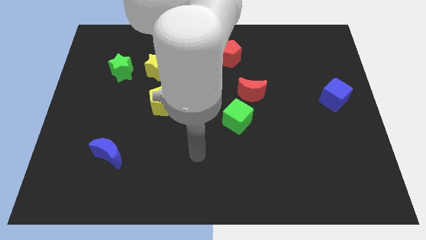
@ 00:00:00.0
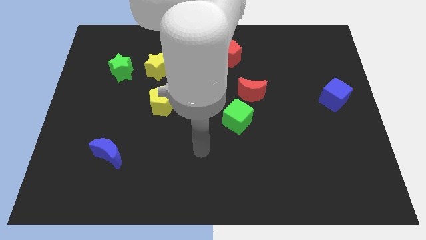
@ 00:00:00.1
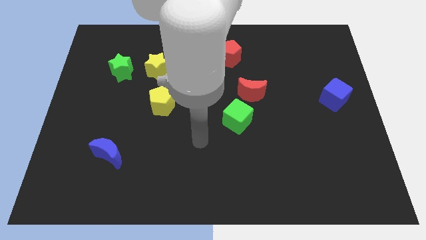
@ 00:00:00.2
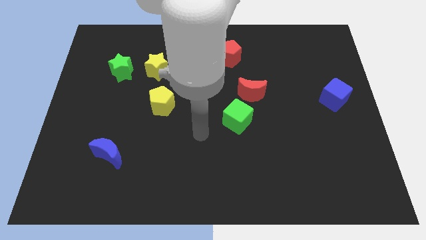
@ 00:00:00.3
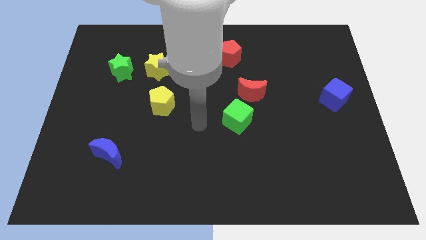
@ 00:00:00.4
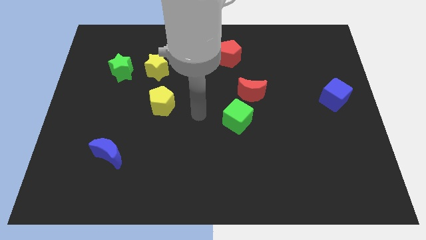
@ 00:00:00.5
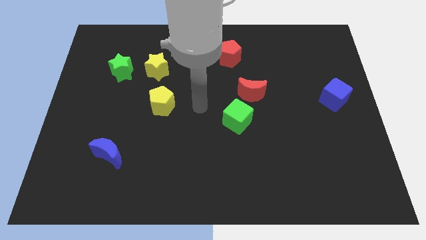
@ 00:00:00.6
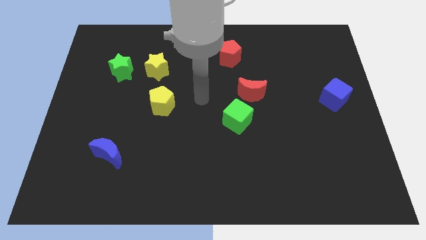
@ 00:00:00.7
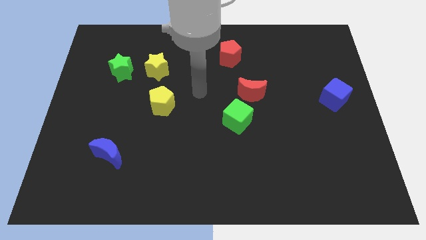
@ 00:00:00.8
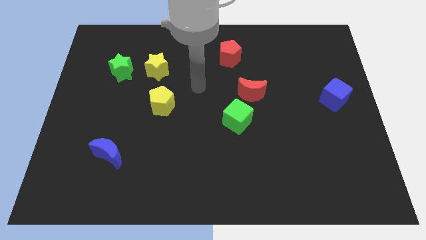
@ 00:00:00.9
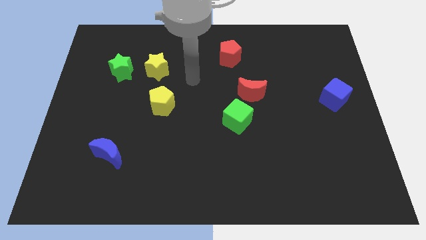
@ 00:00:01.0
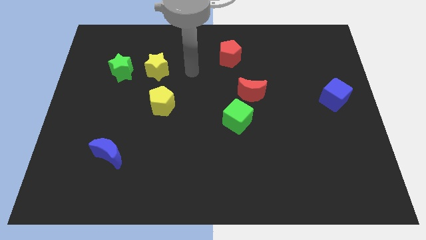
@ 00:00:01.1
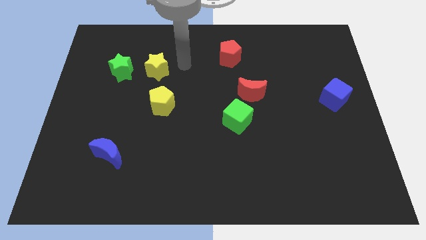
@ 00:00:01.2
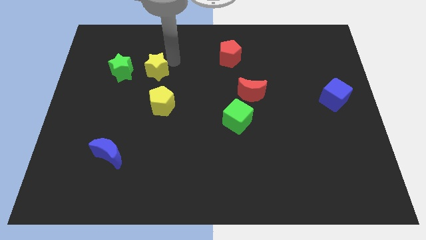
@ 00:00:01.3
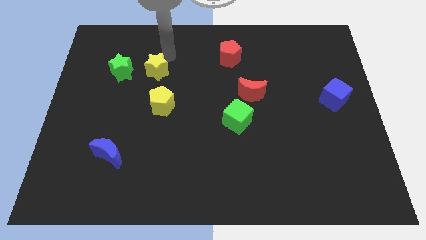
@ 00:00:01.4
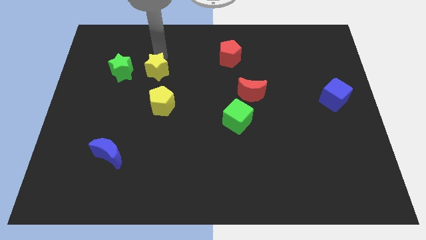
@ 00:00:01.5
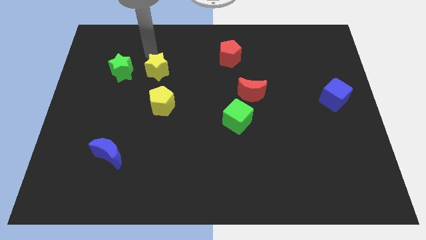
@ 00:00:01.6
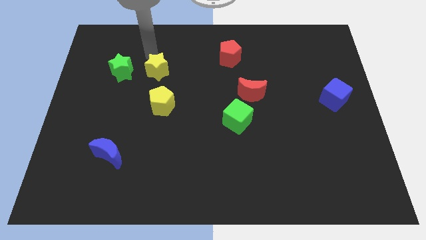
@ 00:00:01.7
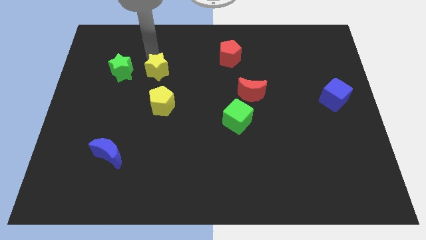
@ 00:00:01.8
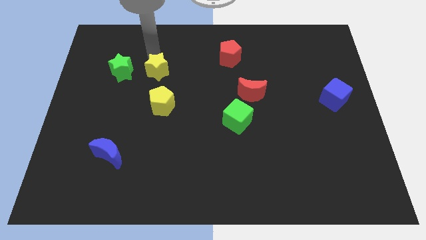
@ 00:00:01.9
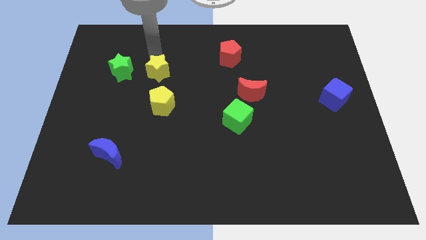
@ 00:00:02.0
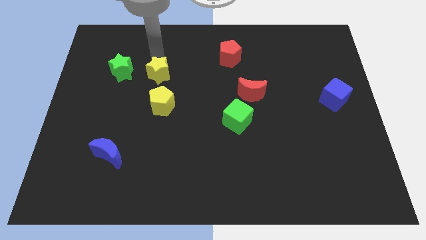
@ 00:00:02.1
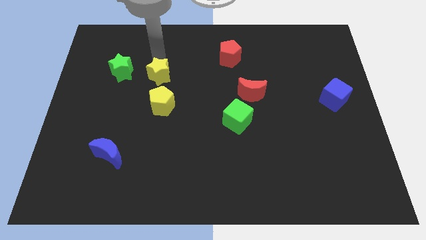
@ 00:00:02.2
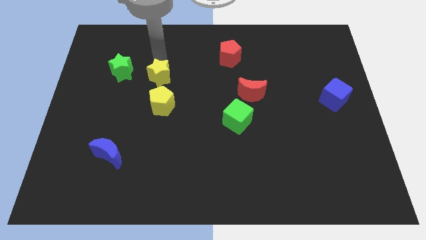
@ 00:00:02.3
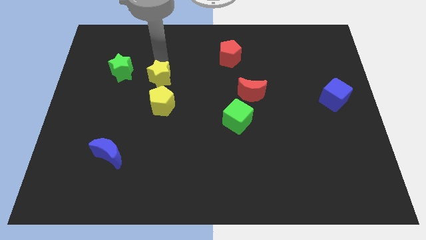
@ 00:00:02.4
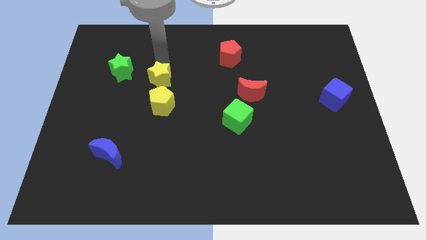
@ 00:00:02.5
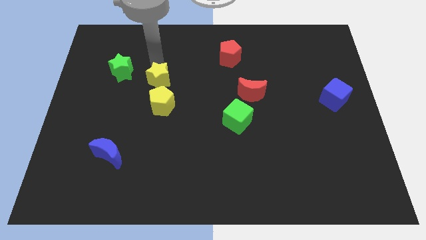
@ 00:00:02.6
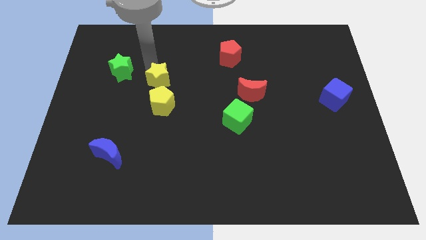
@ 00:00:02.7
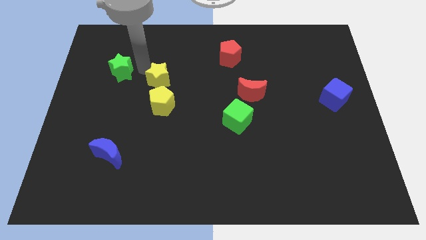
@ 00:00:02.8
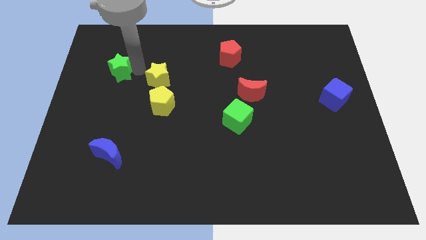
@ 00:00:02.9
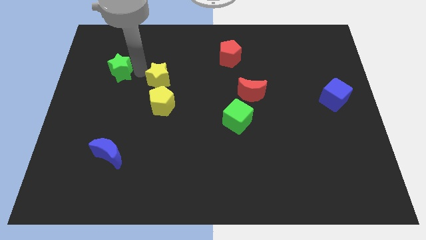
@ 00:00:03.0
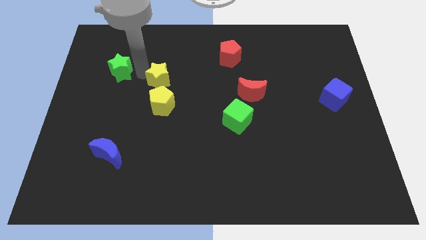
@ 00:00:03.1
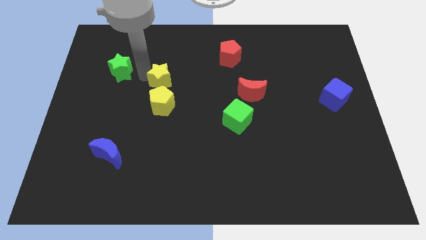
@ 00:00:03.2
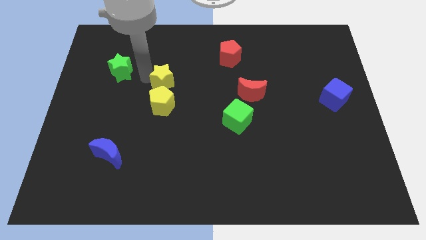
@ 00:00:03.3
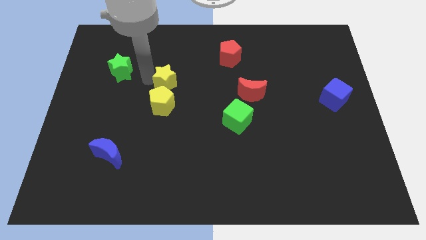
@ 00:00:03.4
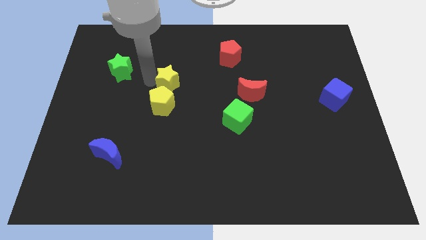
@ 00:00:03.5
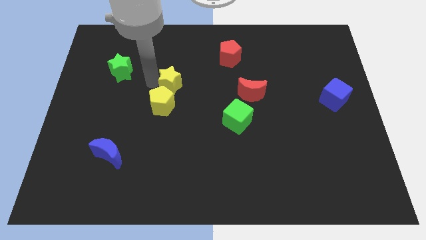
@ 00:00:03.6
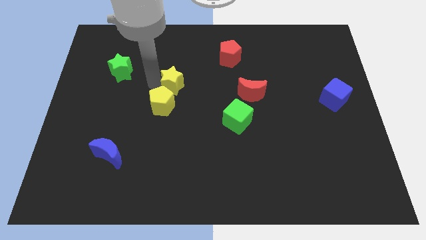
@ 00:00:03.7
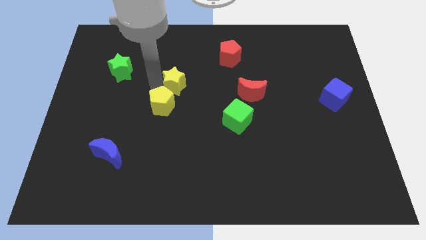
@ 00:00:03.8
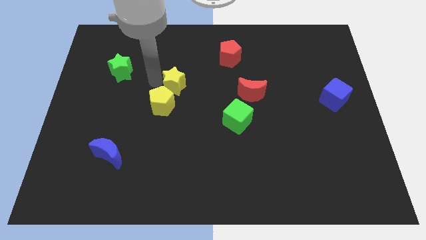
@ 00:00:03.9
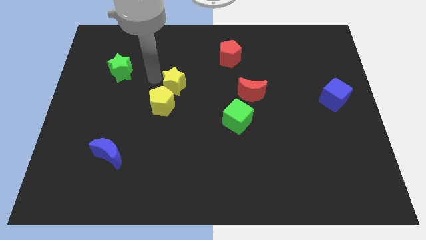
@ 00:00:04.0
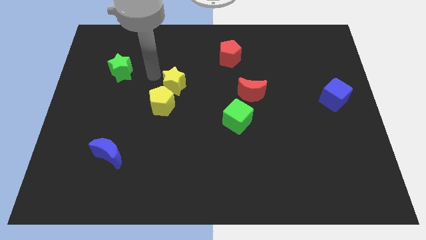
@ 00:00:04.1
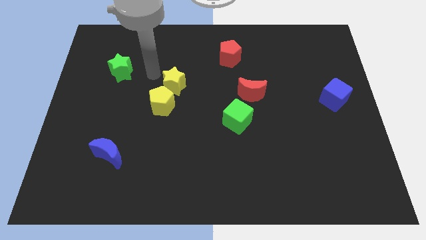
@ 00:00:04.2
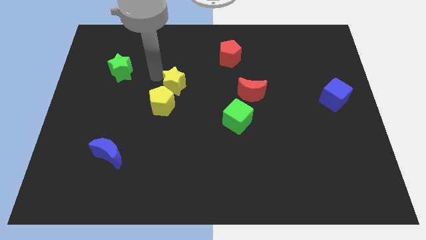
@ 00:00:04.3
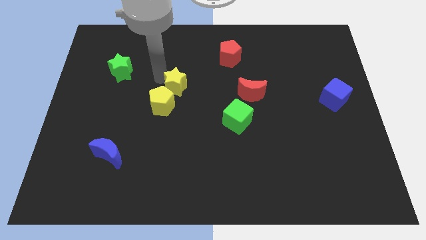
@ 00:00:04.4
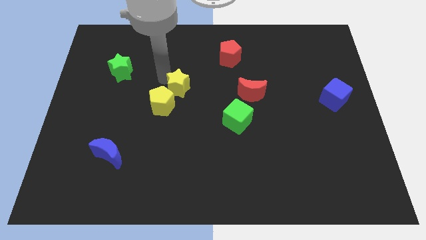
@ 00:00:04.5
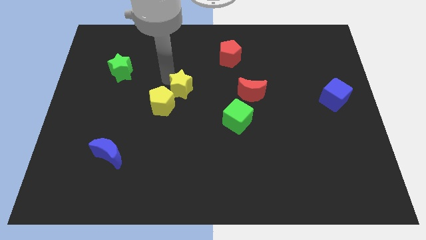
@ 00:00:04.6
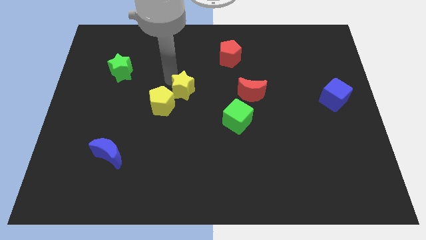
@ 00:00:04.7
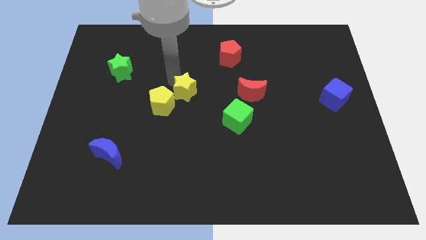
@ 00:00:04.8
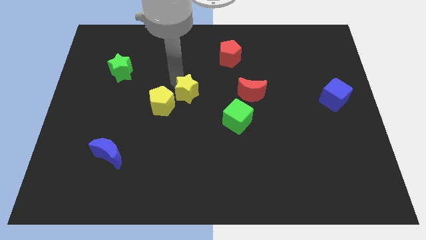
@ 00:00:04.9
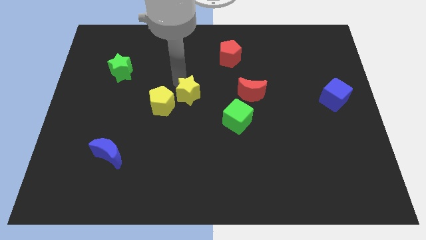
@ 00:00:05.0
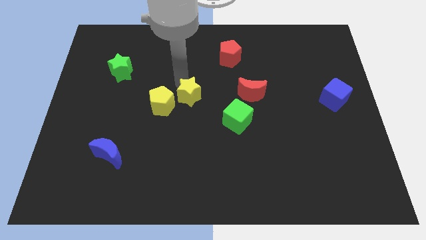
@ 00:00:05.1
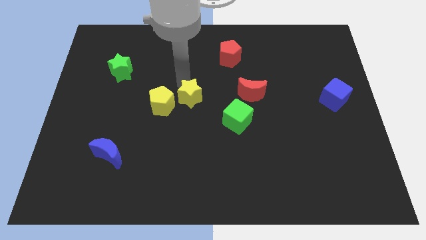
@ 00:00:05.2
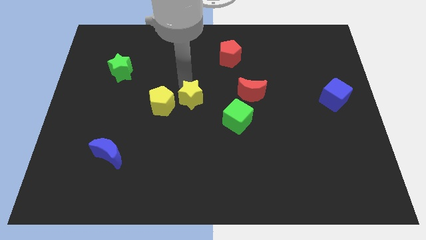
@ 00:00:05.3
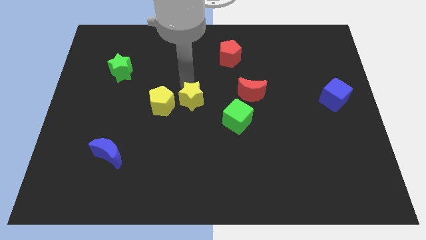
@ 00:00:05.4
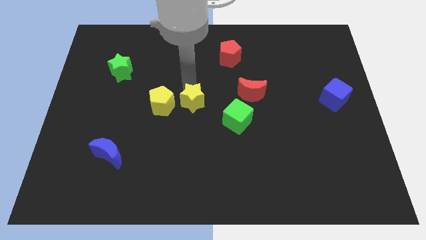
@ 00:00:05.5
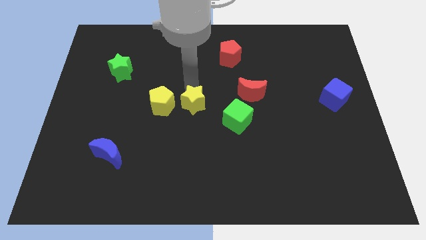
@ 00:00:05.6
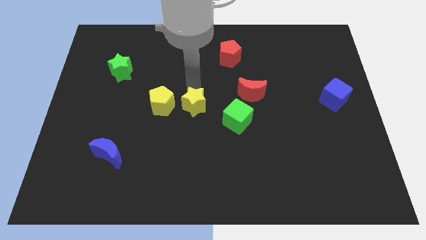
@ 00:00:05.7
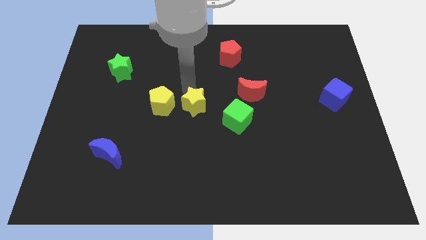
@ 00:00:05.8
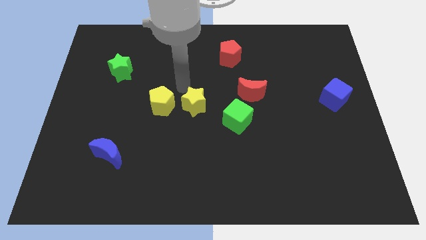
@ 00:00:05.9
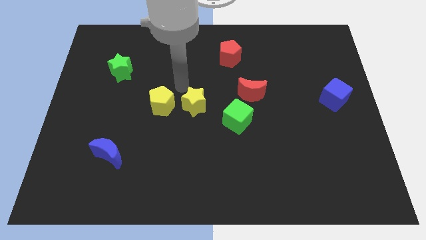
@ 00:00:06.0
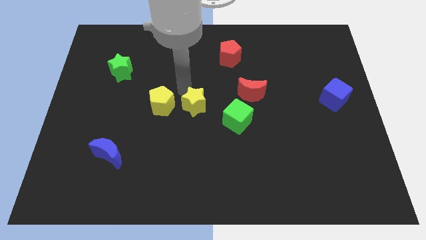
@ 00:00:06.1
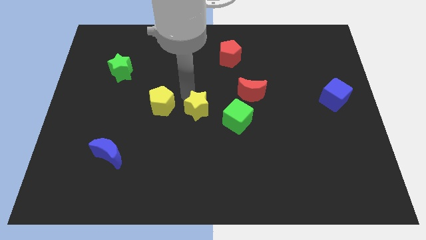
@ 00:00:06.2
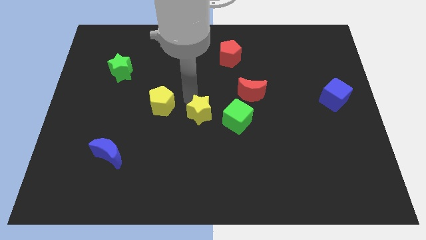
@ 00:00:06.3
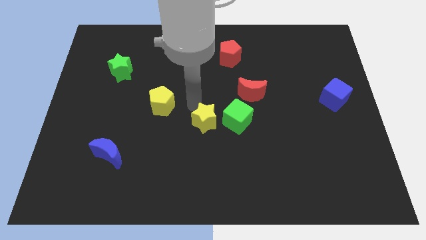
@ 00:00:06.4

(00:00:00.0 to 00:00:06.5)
push the yellow star diagonally downwards and to the right

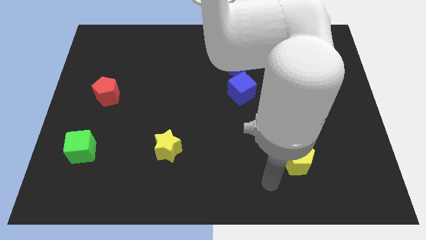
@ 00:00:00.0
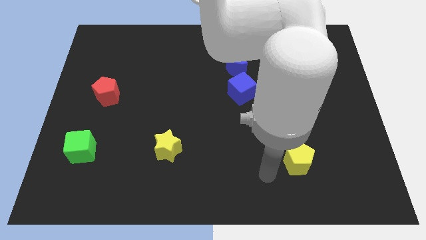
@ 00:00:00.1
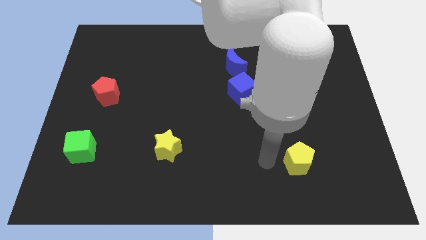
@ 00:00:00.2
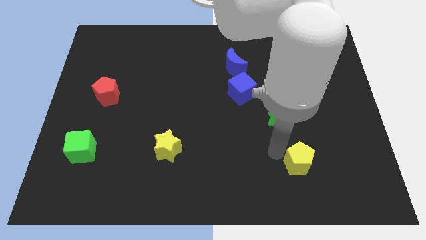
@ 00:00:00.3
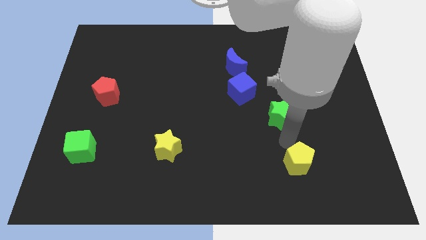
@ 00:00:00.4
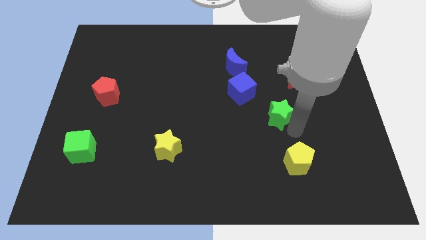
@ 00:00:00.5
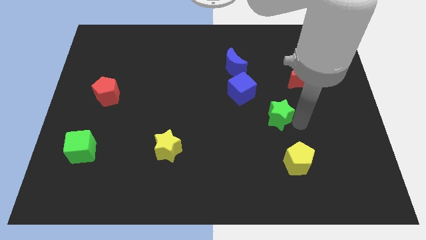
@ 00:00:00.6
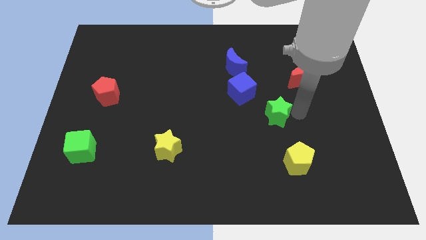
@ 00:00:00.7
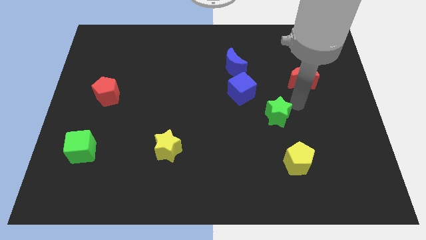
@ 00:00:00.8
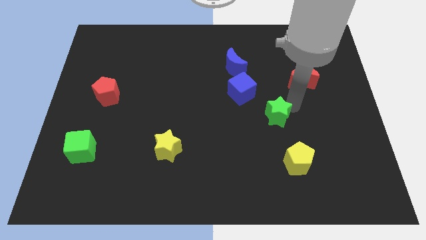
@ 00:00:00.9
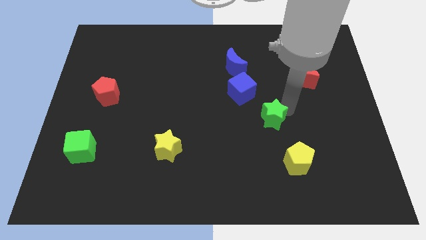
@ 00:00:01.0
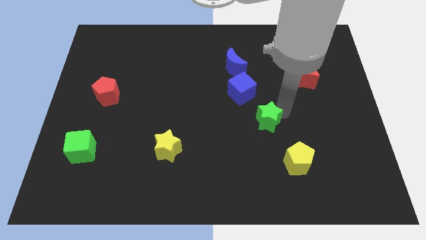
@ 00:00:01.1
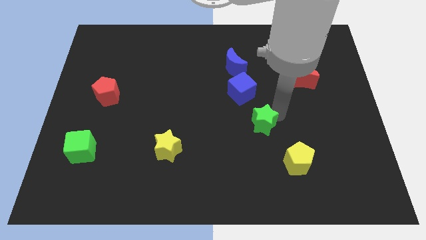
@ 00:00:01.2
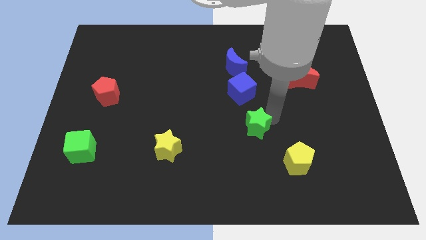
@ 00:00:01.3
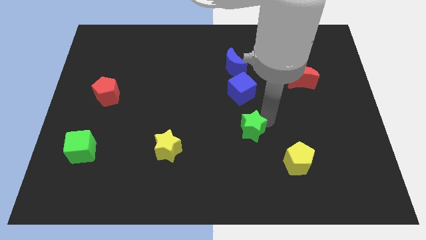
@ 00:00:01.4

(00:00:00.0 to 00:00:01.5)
slide the green star a bit down and left
